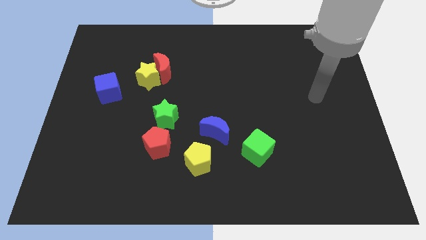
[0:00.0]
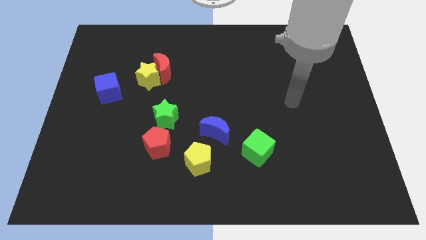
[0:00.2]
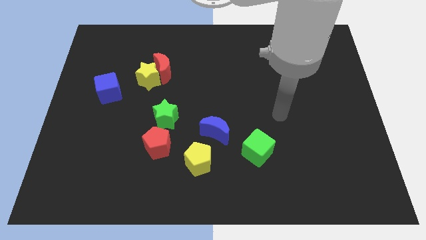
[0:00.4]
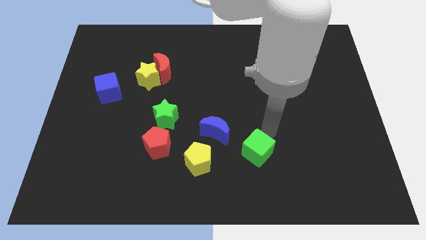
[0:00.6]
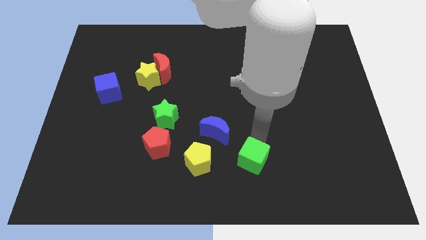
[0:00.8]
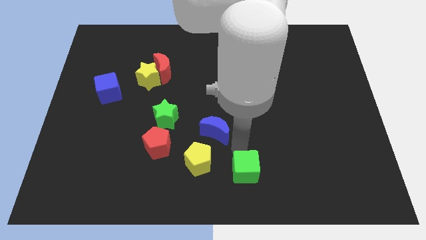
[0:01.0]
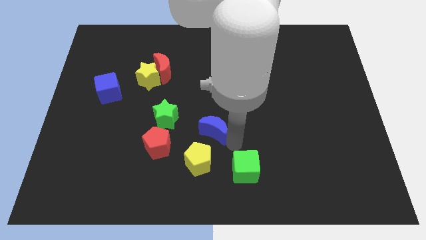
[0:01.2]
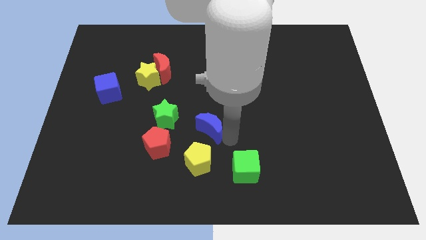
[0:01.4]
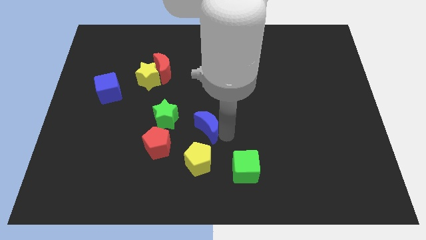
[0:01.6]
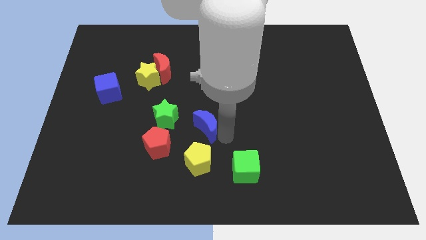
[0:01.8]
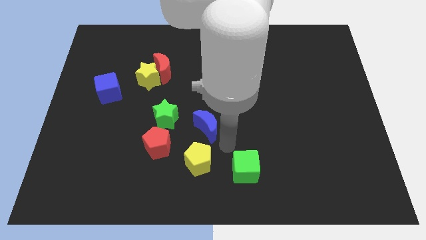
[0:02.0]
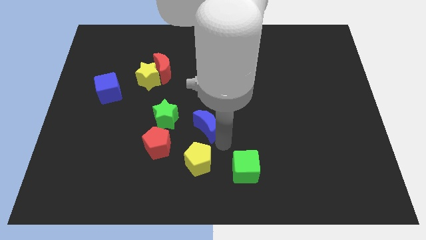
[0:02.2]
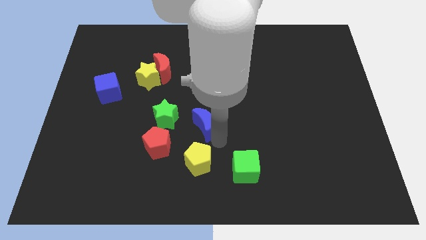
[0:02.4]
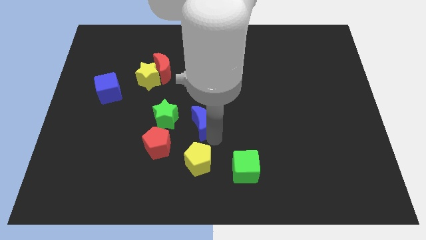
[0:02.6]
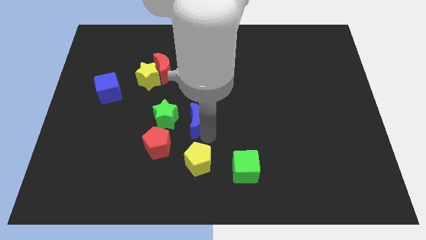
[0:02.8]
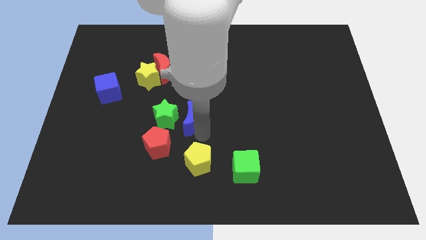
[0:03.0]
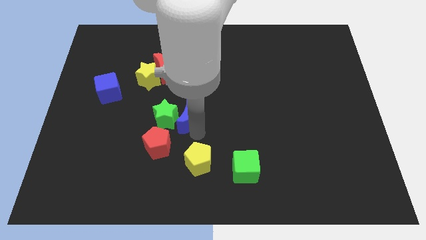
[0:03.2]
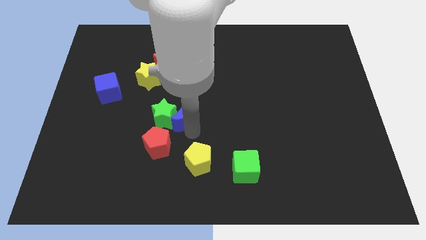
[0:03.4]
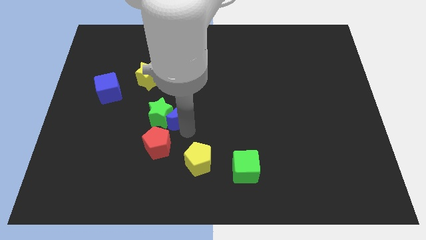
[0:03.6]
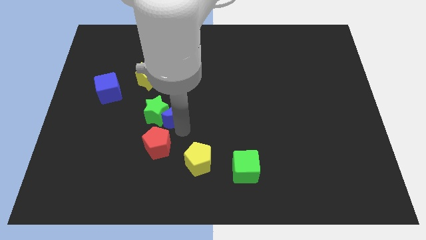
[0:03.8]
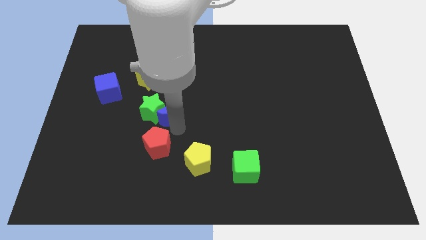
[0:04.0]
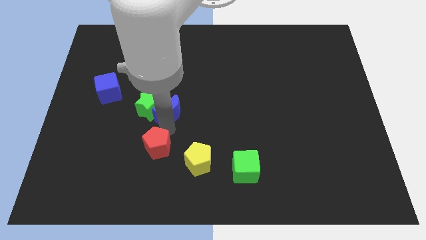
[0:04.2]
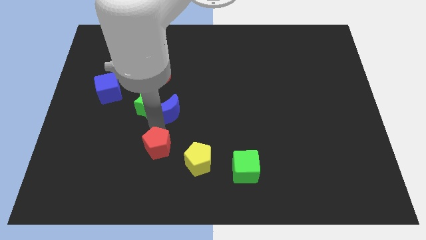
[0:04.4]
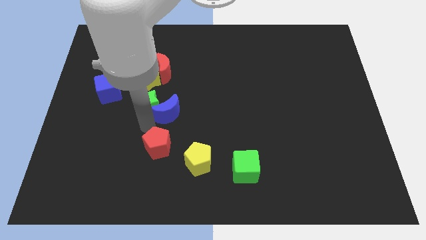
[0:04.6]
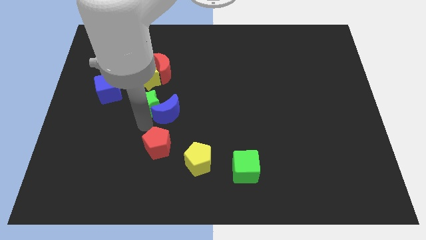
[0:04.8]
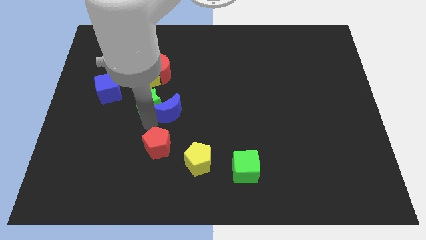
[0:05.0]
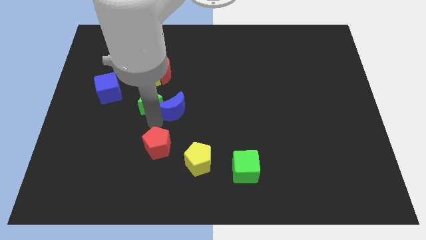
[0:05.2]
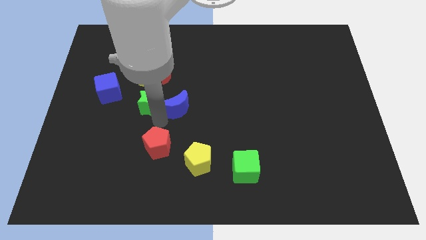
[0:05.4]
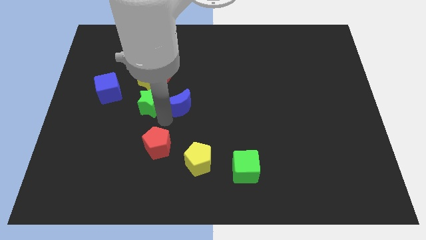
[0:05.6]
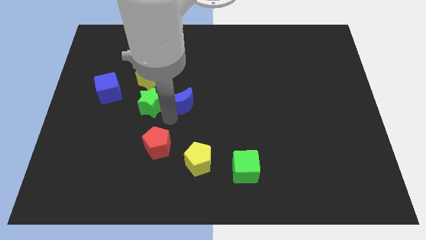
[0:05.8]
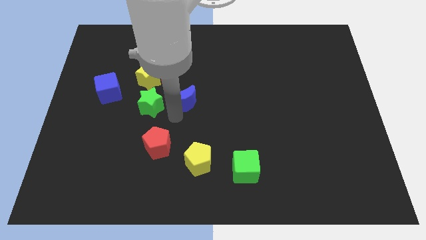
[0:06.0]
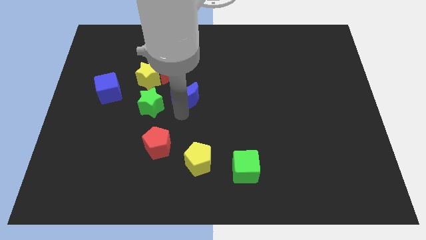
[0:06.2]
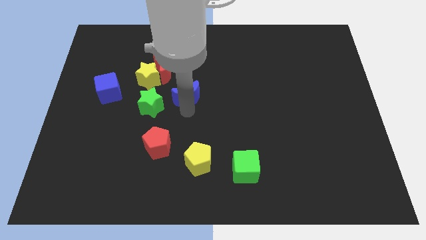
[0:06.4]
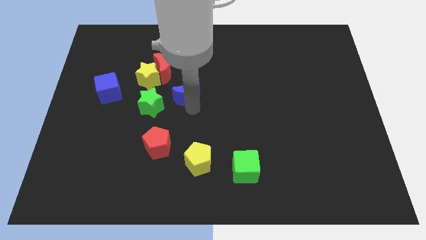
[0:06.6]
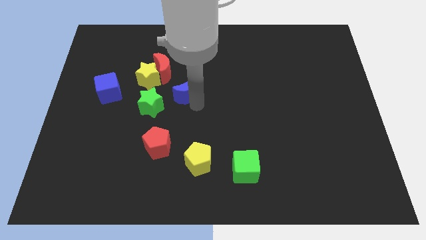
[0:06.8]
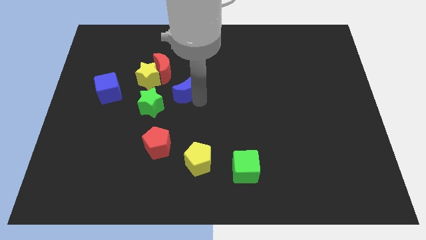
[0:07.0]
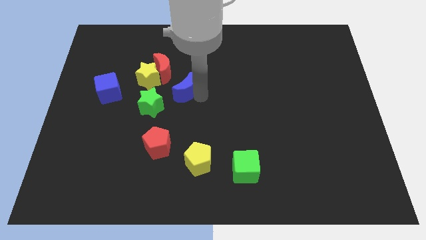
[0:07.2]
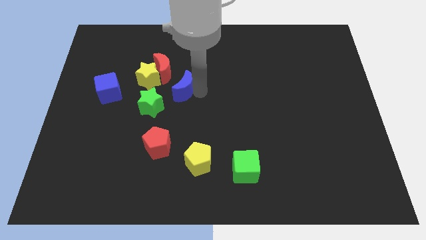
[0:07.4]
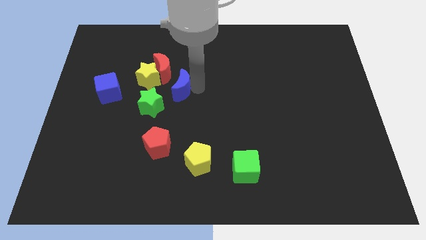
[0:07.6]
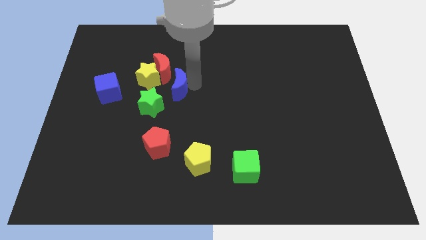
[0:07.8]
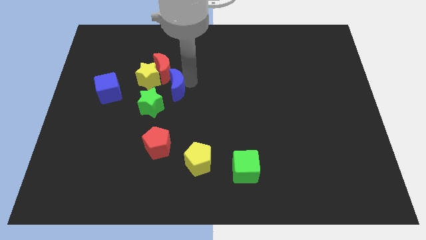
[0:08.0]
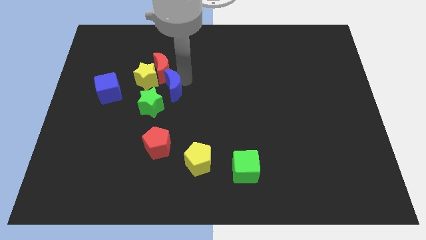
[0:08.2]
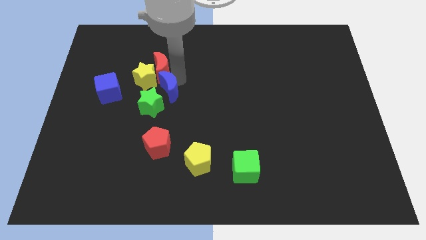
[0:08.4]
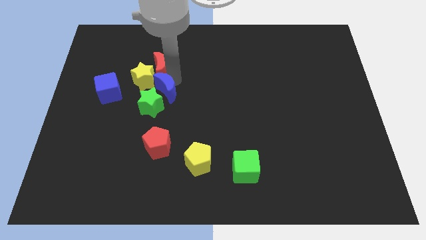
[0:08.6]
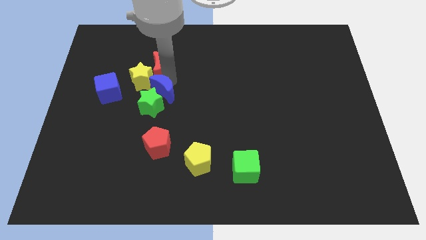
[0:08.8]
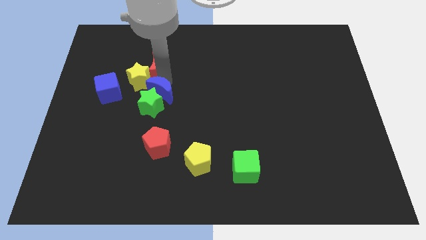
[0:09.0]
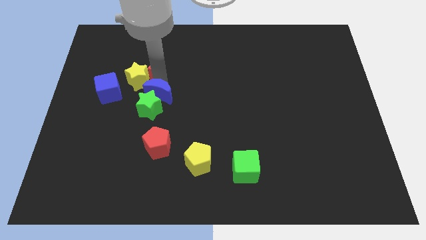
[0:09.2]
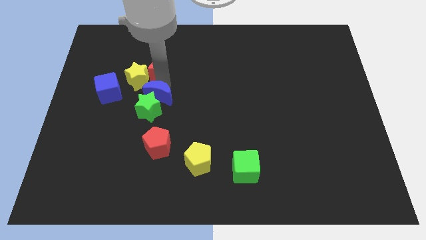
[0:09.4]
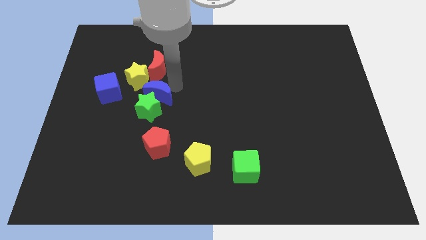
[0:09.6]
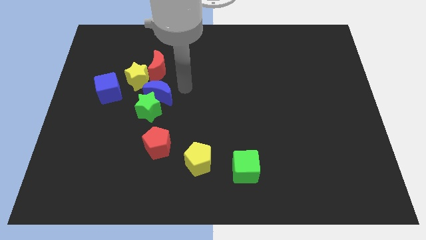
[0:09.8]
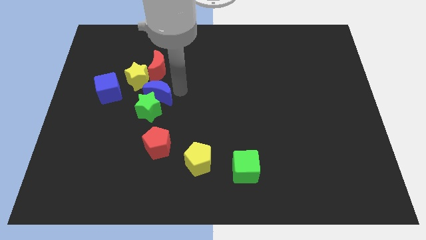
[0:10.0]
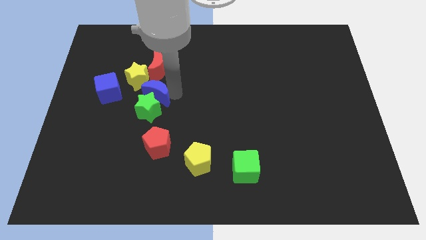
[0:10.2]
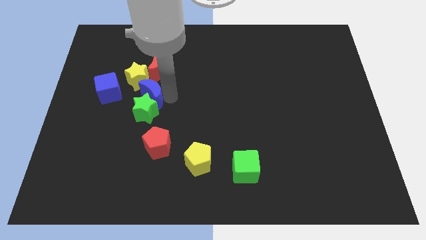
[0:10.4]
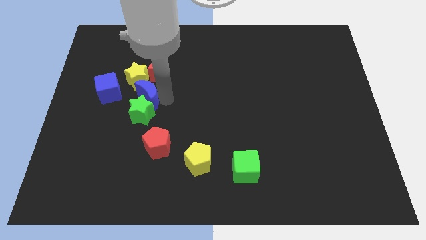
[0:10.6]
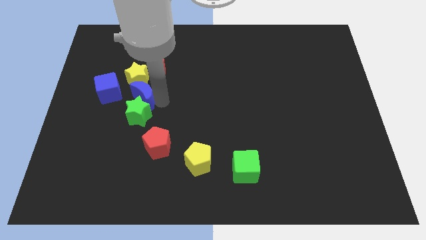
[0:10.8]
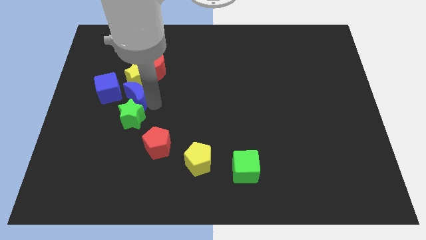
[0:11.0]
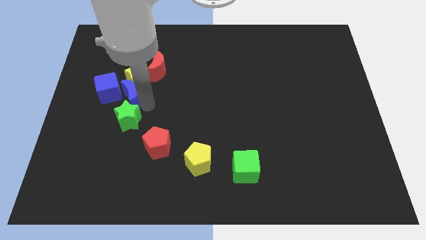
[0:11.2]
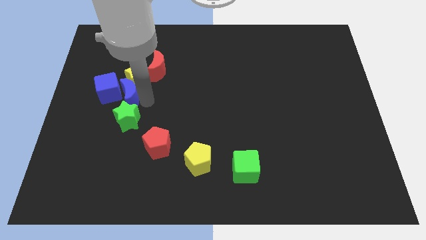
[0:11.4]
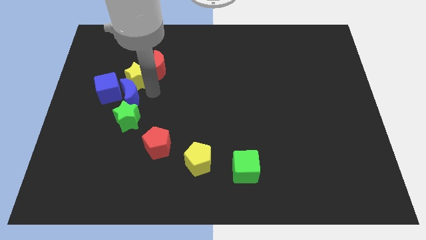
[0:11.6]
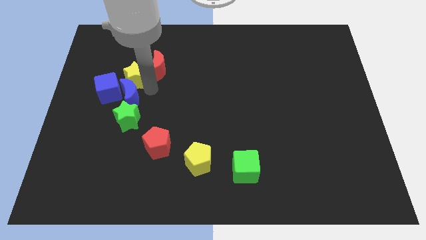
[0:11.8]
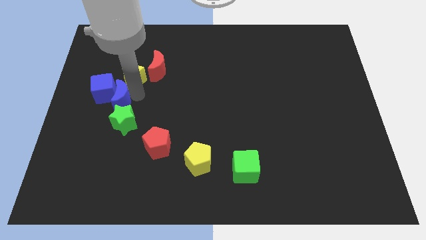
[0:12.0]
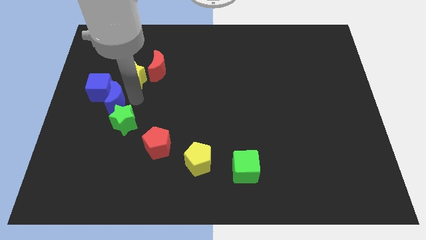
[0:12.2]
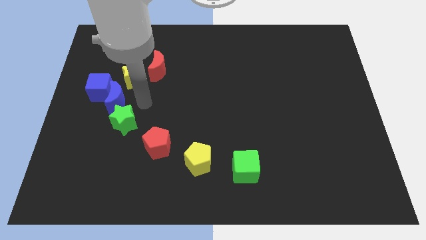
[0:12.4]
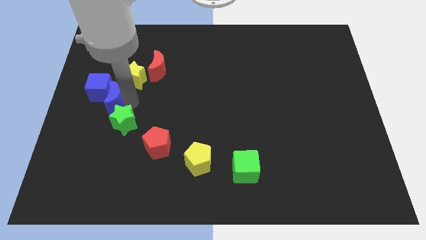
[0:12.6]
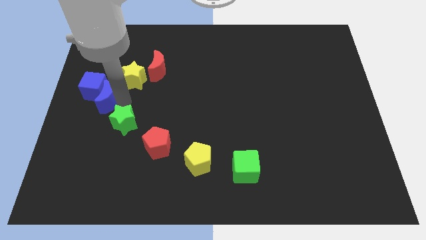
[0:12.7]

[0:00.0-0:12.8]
move the blue moon to the left side
